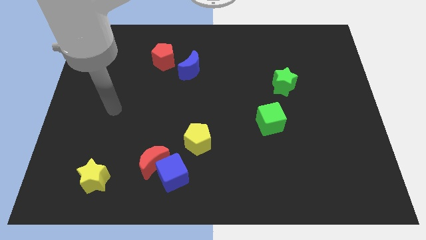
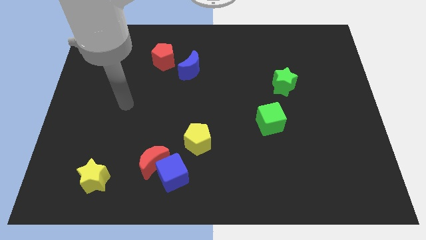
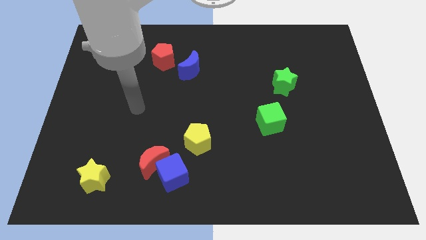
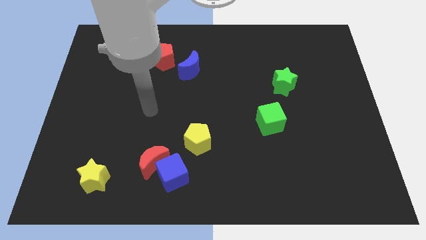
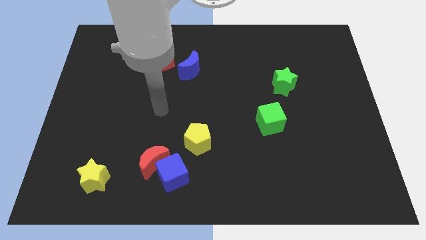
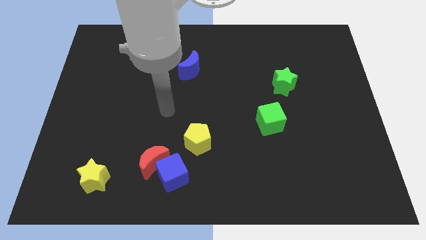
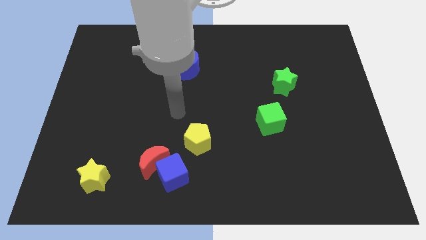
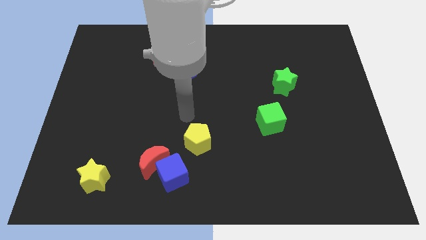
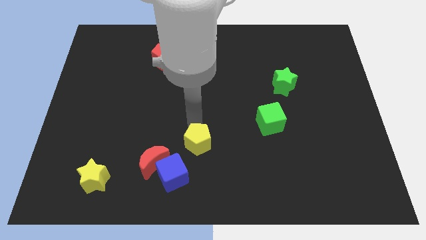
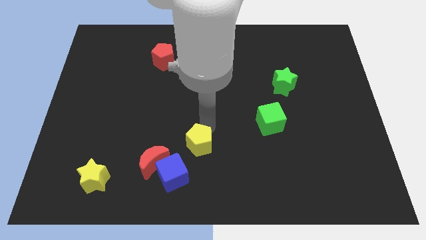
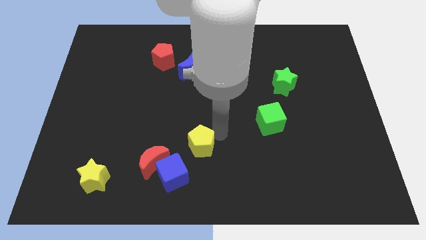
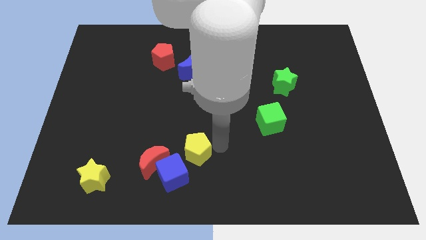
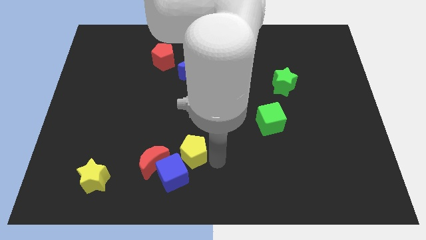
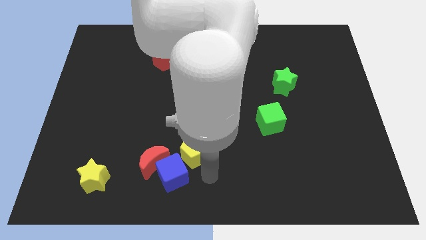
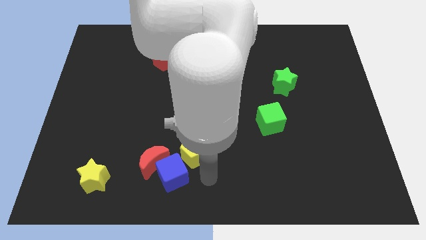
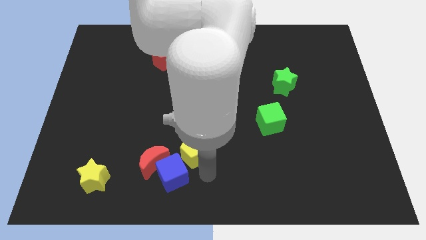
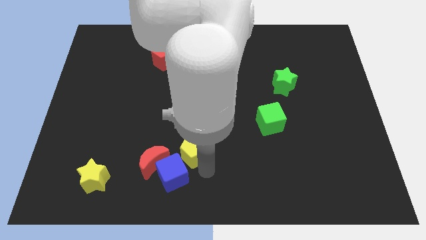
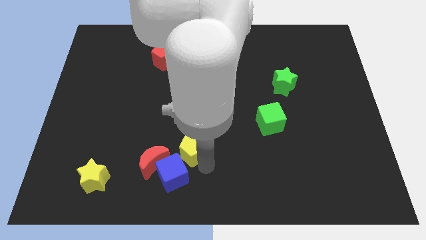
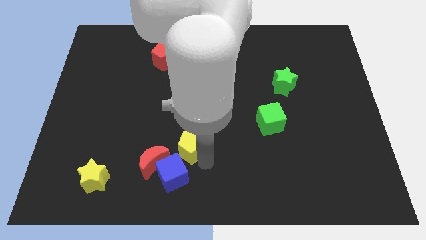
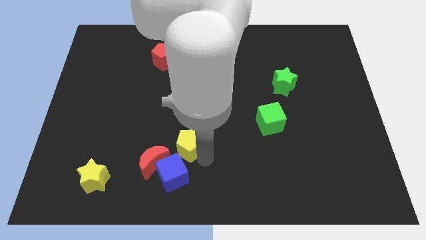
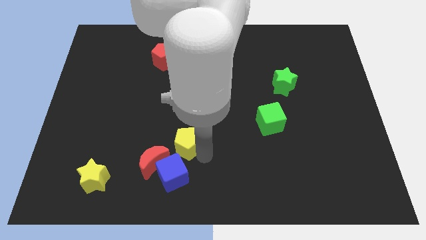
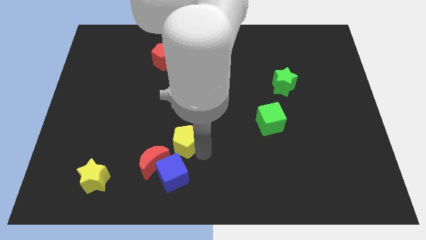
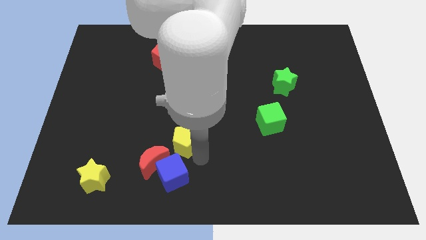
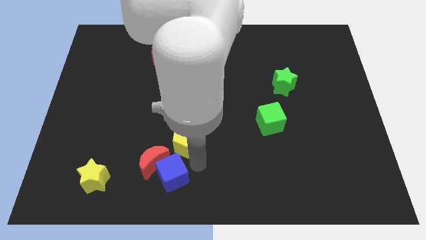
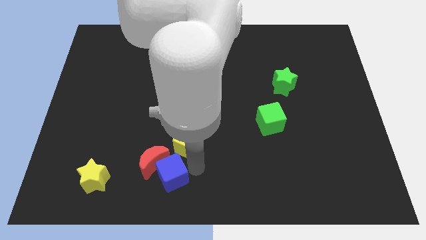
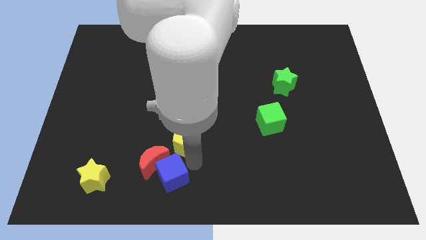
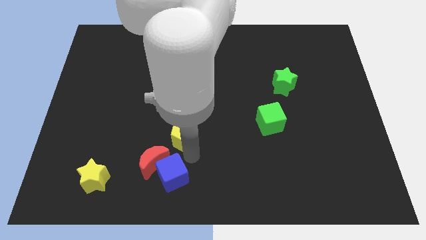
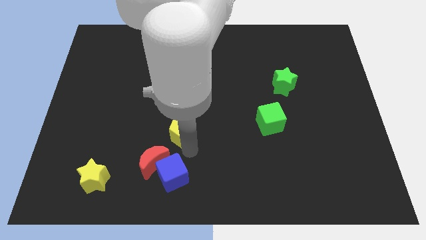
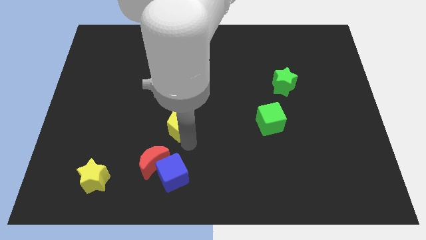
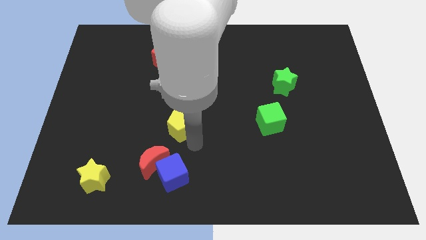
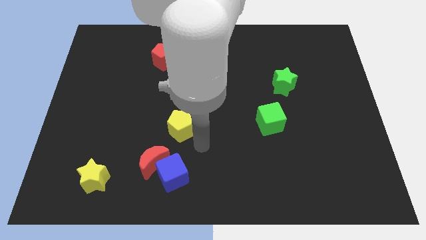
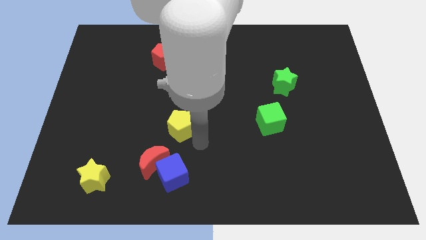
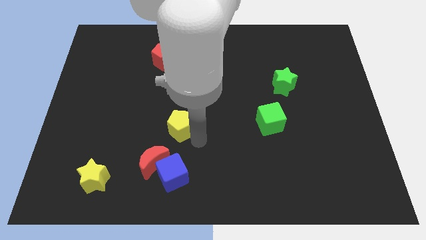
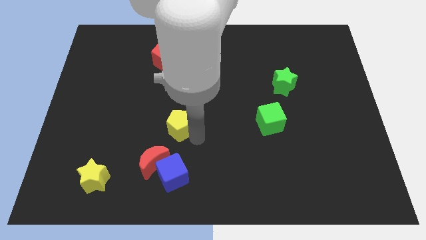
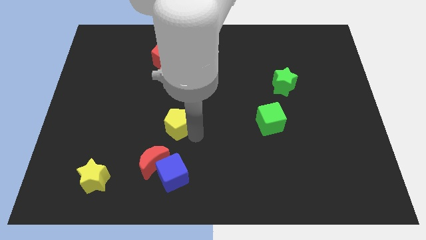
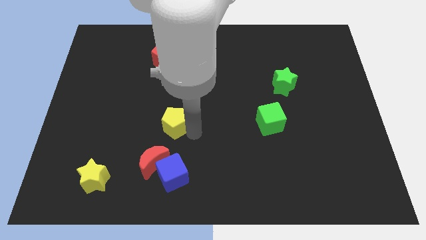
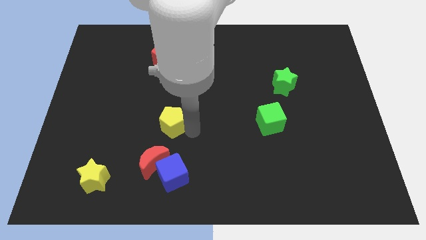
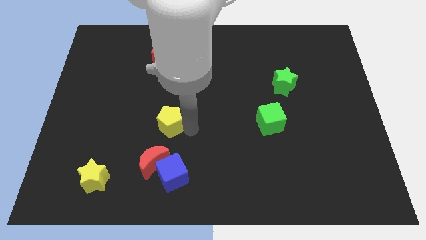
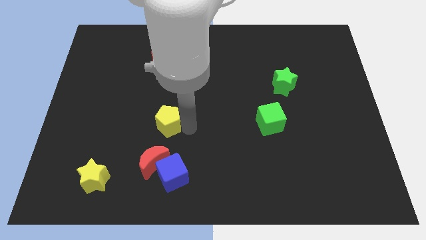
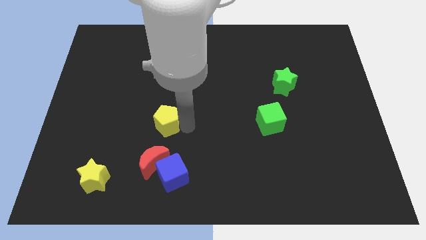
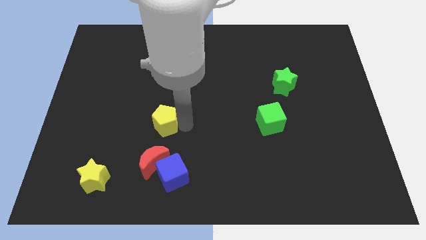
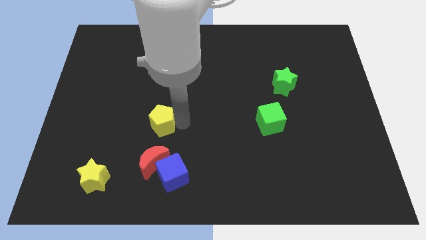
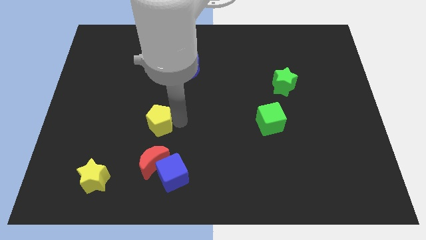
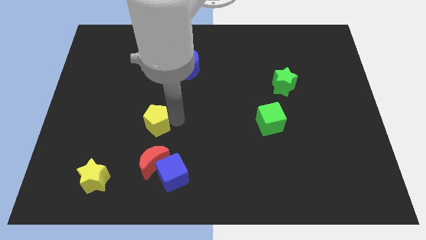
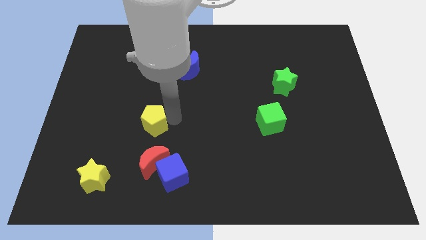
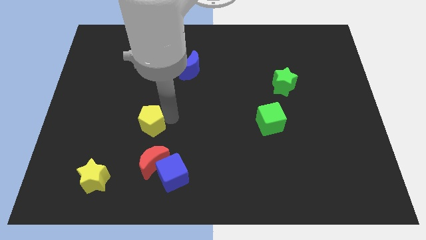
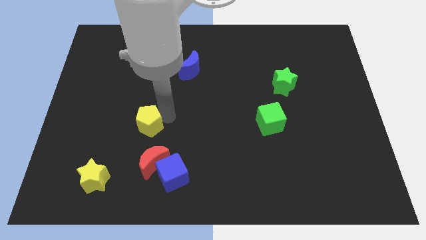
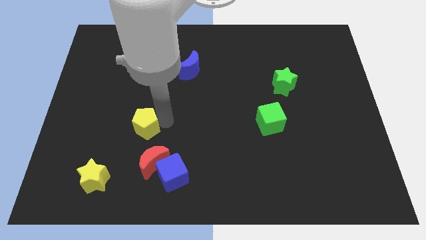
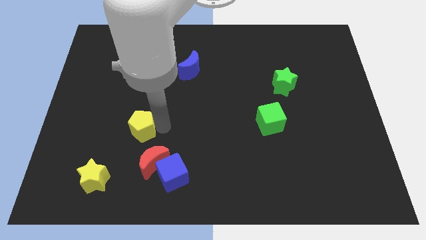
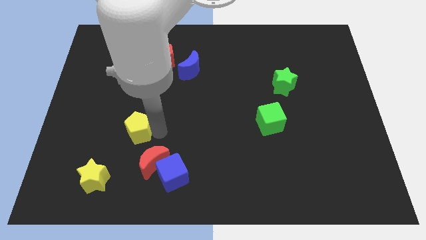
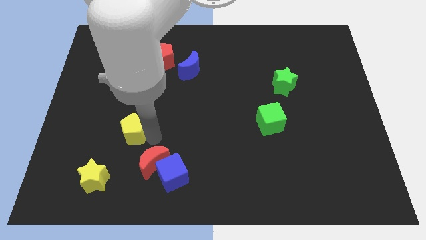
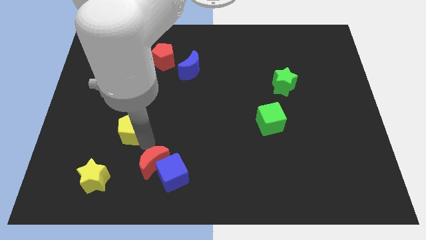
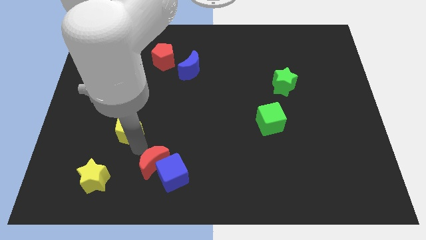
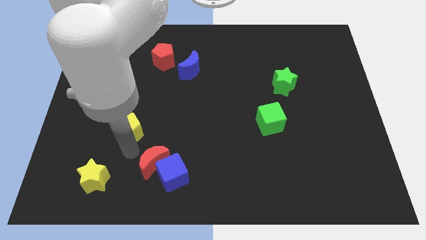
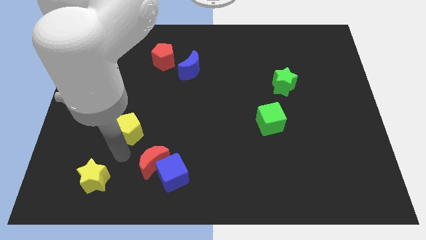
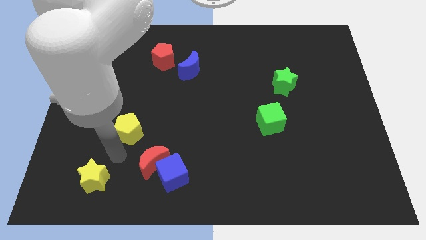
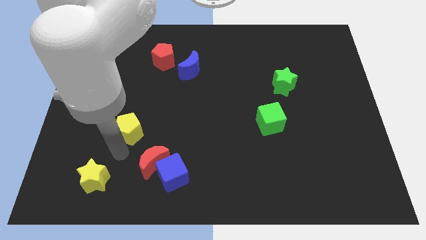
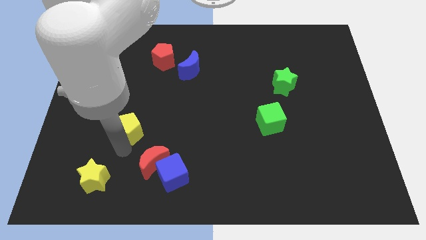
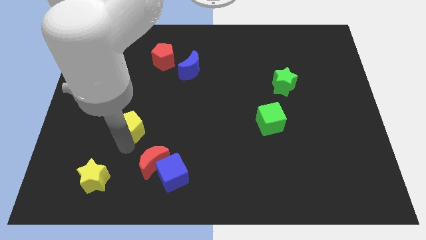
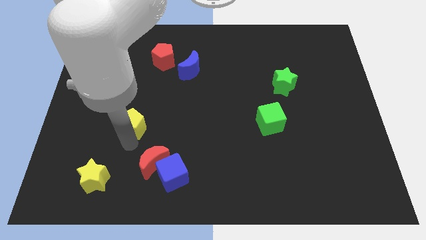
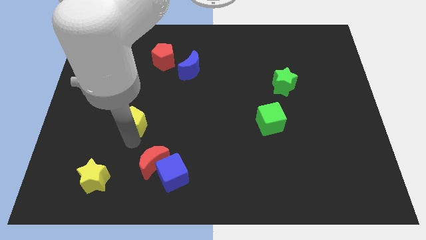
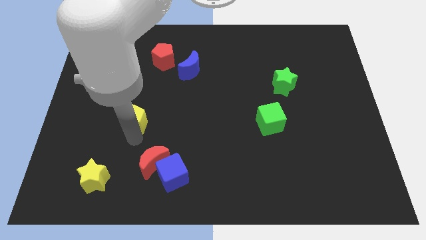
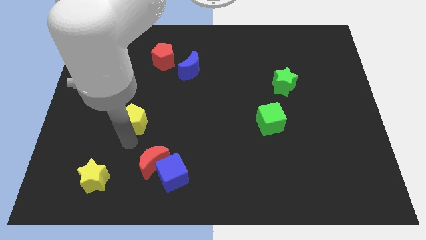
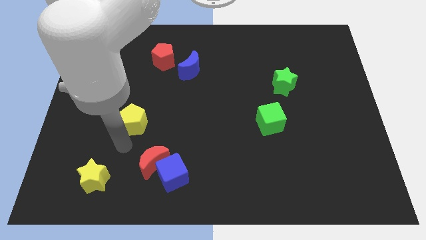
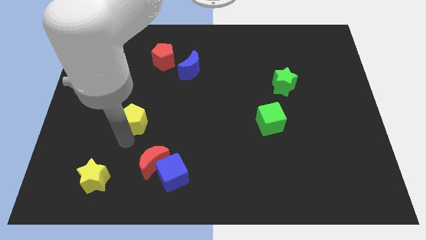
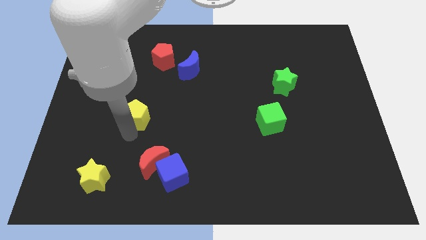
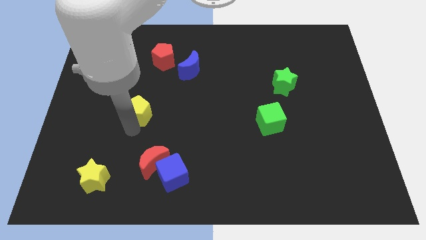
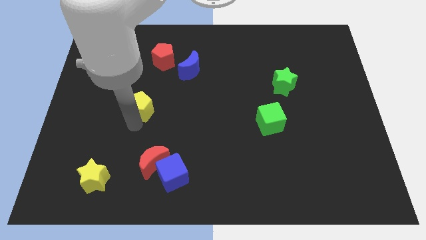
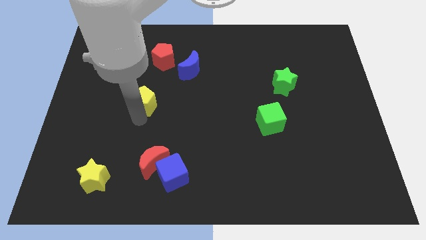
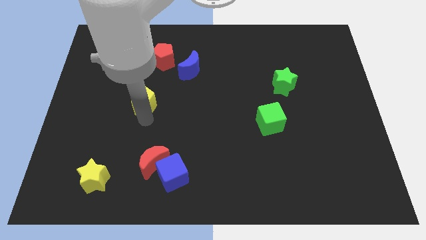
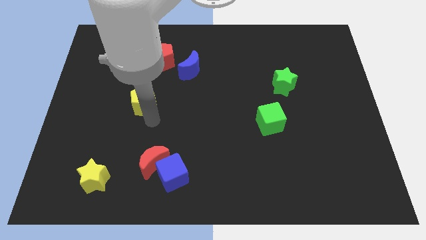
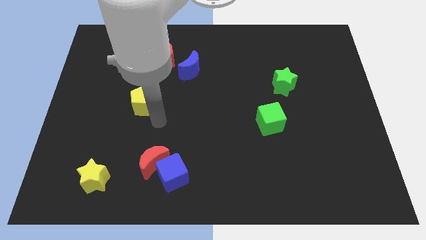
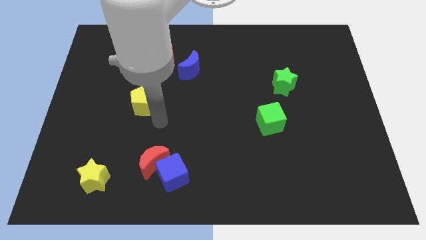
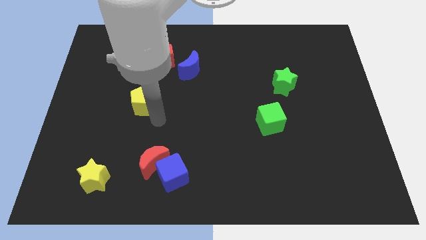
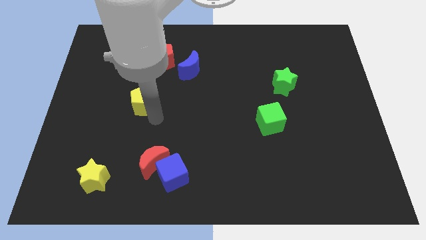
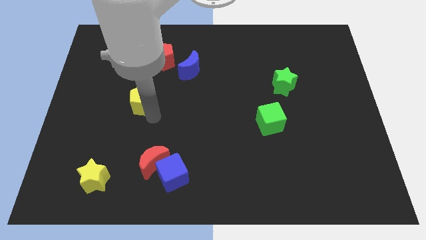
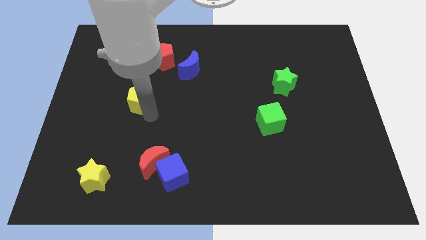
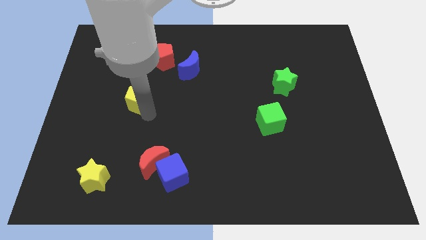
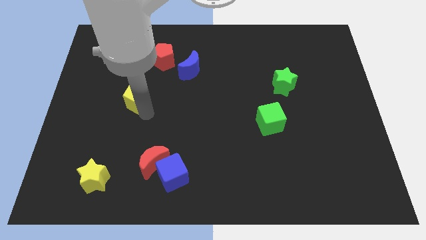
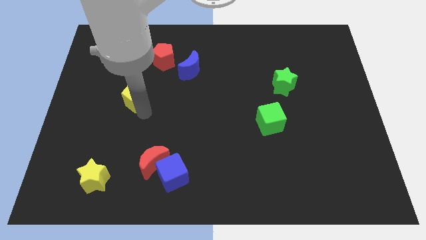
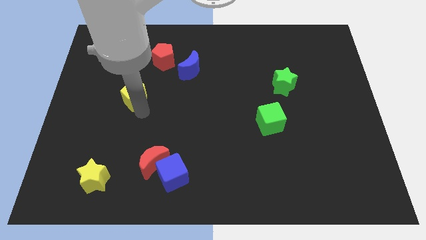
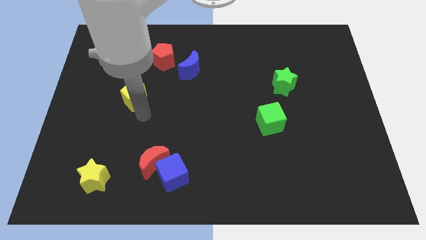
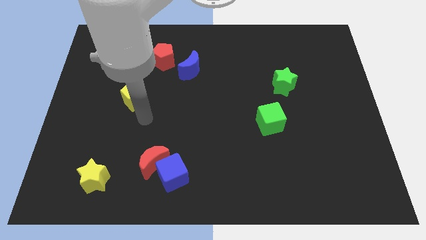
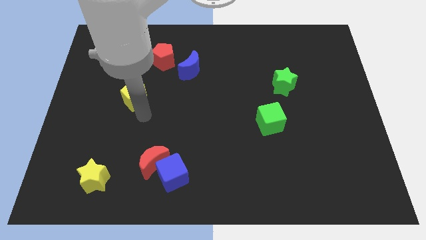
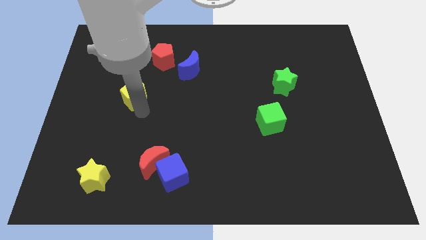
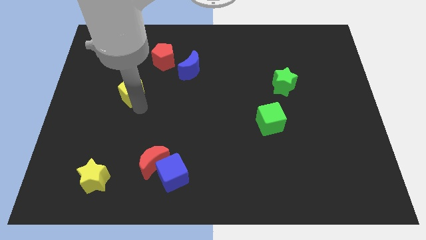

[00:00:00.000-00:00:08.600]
push the yellow pentagon up and to the left diagonally
